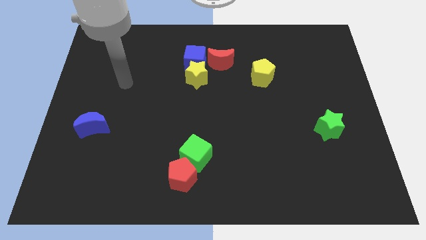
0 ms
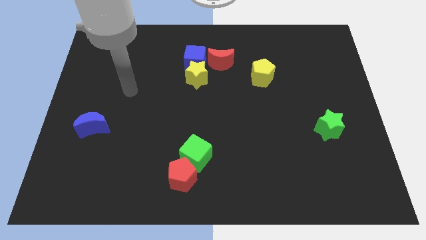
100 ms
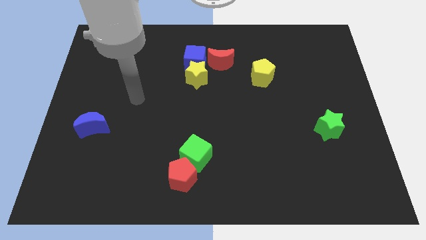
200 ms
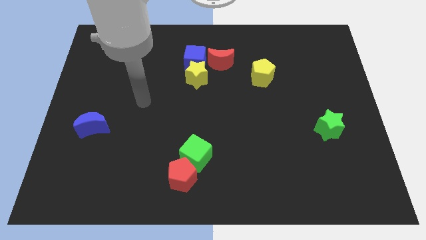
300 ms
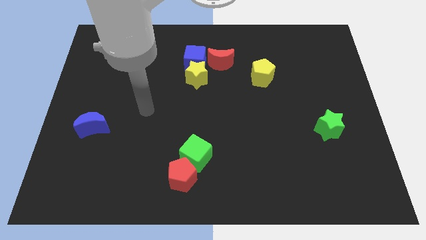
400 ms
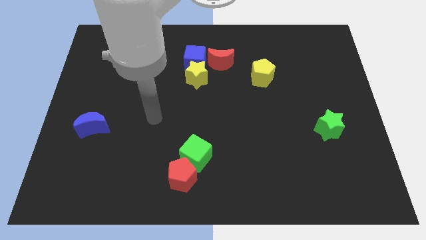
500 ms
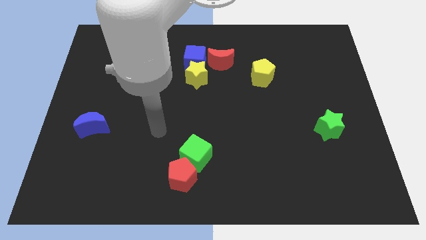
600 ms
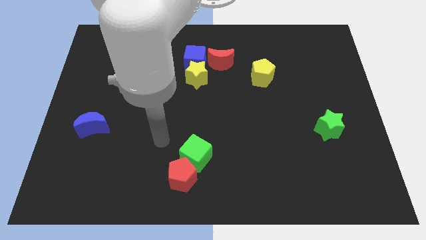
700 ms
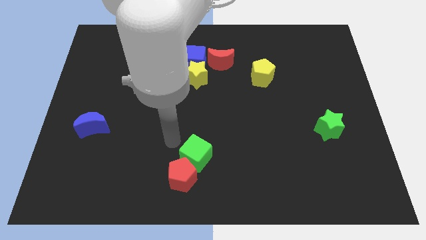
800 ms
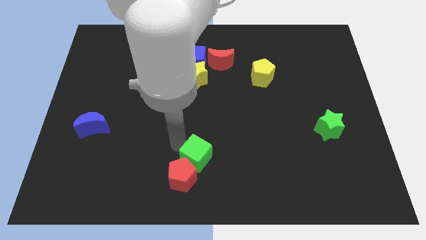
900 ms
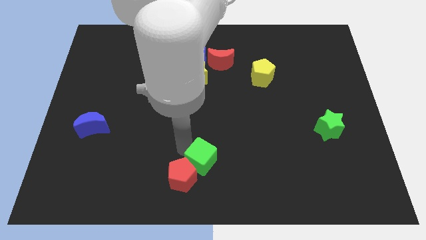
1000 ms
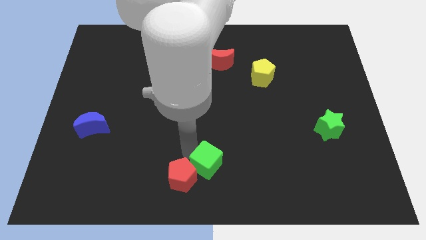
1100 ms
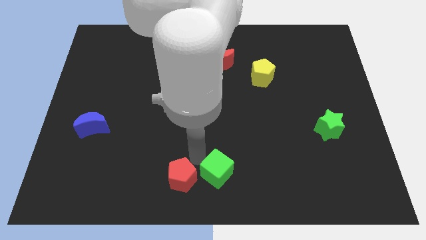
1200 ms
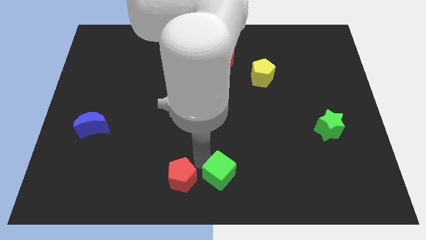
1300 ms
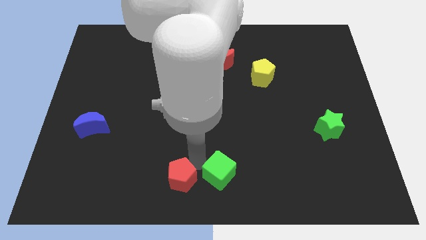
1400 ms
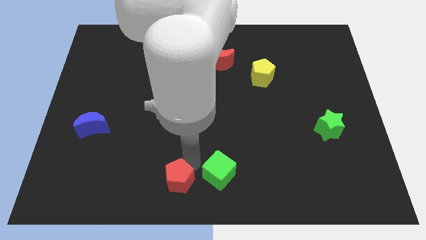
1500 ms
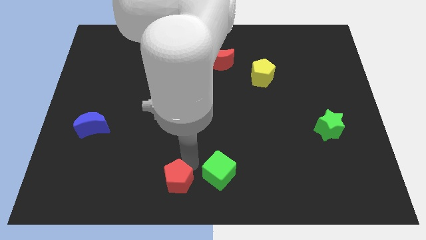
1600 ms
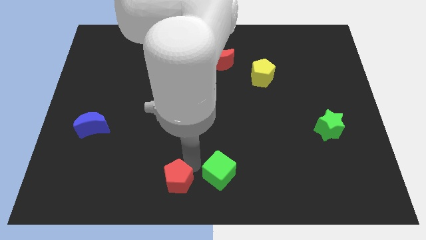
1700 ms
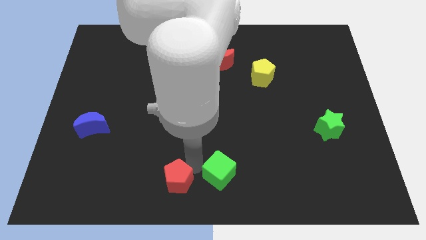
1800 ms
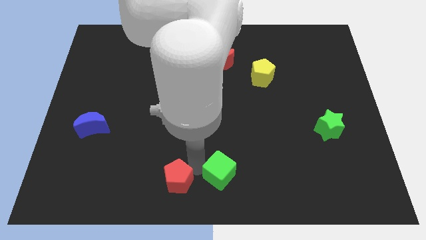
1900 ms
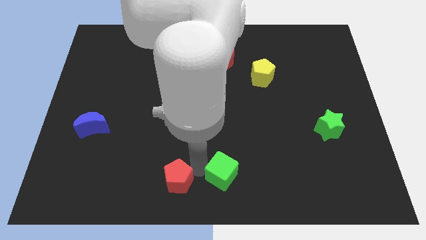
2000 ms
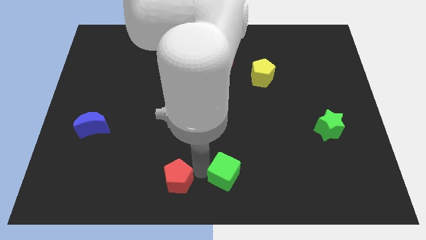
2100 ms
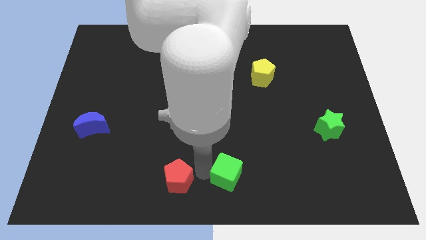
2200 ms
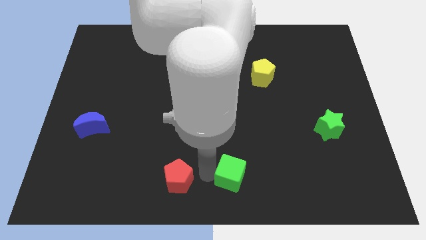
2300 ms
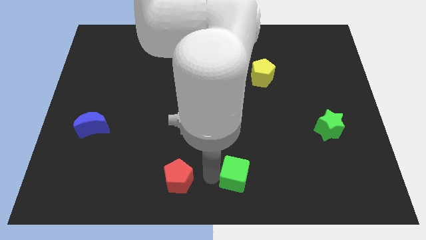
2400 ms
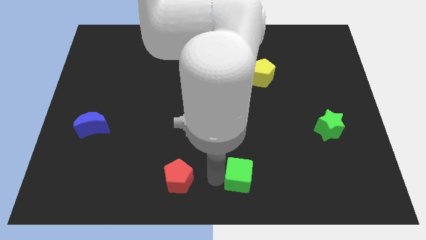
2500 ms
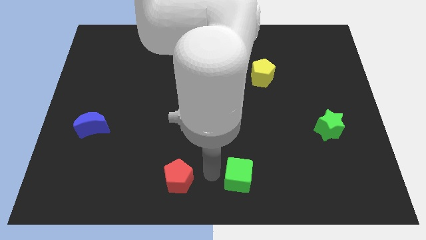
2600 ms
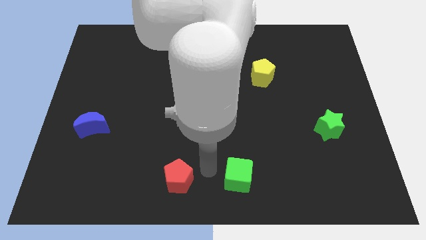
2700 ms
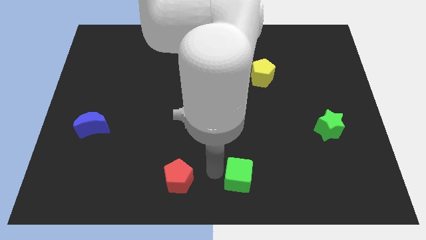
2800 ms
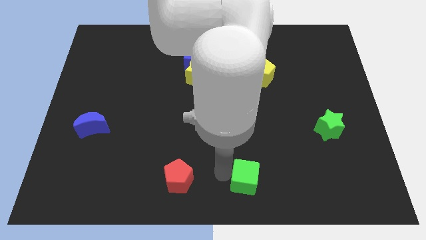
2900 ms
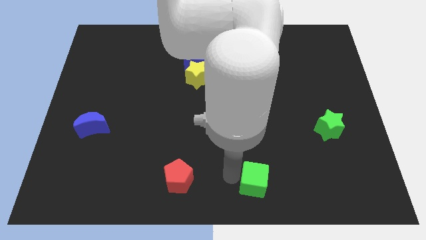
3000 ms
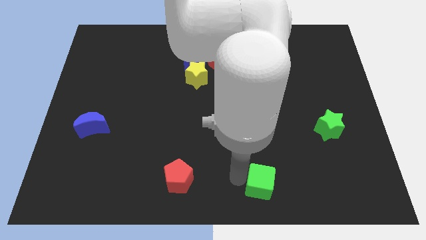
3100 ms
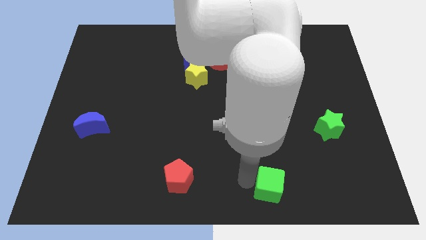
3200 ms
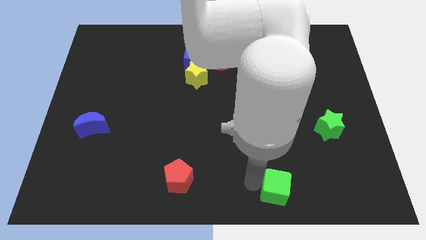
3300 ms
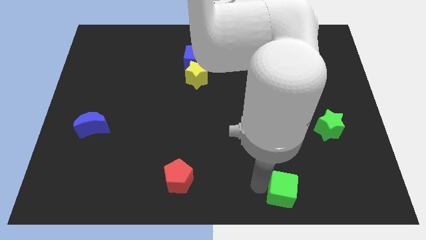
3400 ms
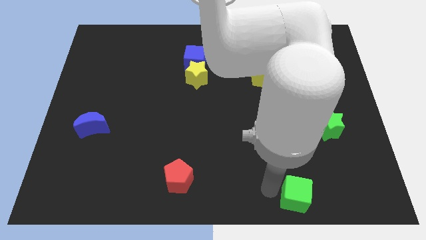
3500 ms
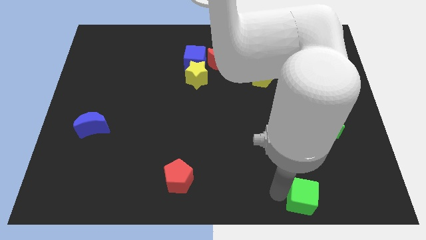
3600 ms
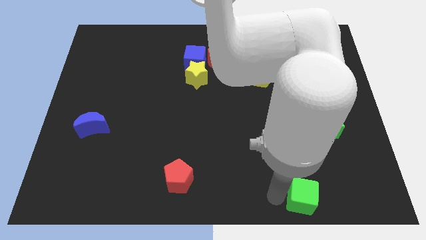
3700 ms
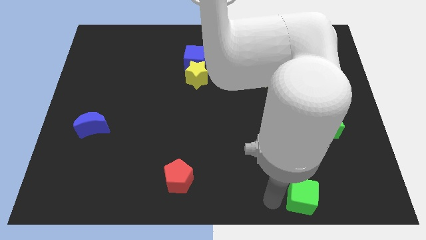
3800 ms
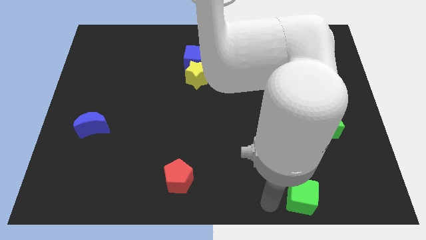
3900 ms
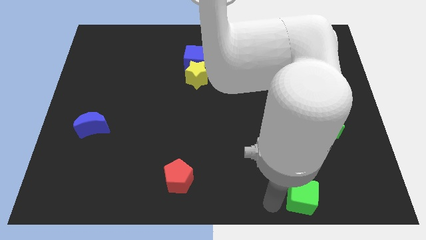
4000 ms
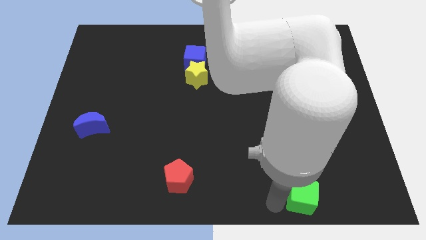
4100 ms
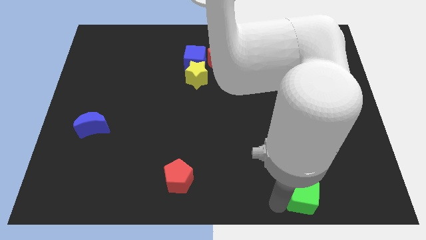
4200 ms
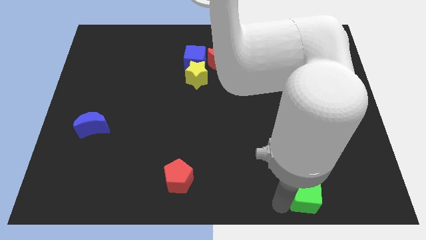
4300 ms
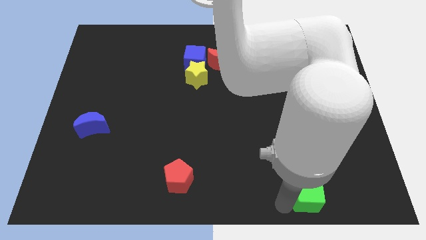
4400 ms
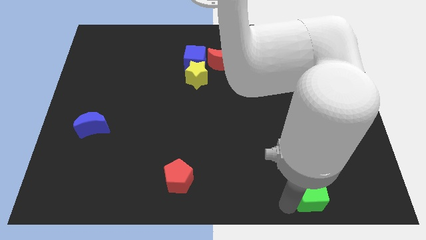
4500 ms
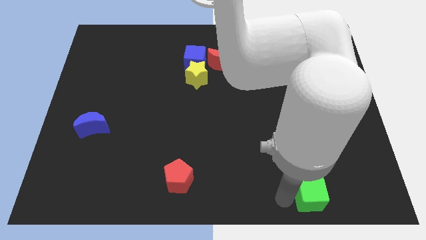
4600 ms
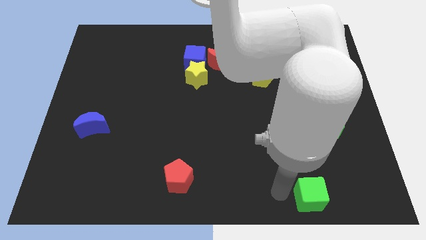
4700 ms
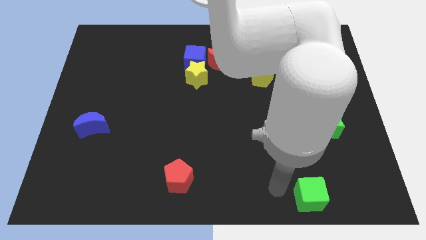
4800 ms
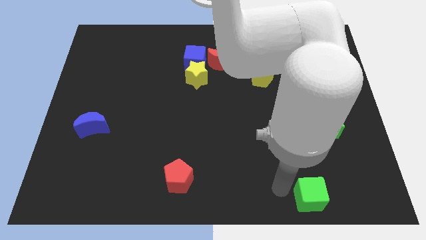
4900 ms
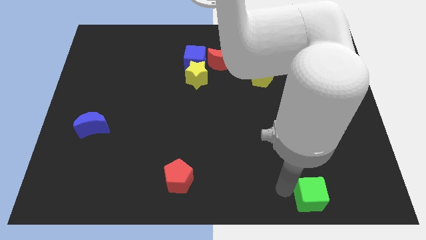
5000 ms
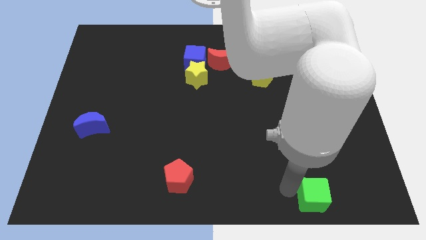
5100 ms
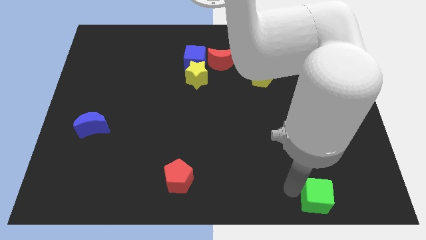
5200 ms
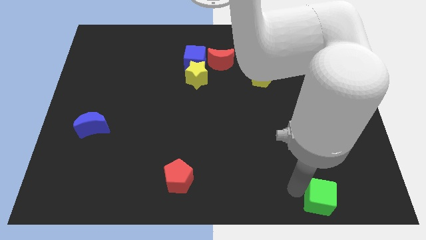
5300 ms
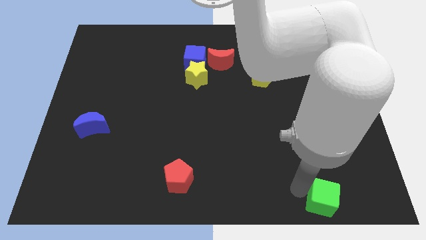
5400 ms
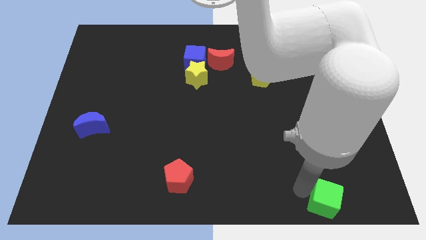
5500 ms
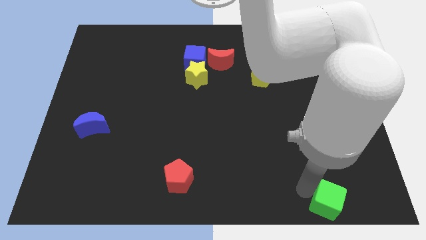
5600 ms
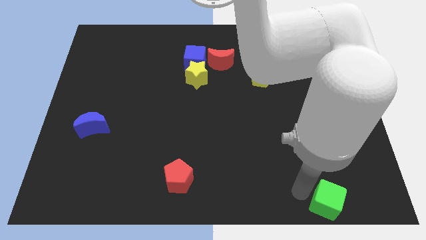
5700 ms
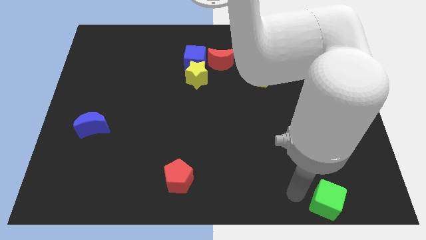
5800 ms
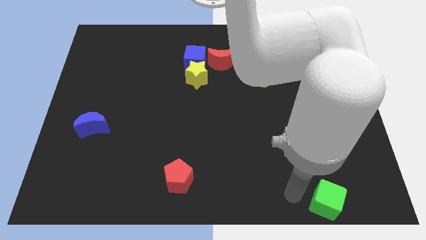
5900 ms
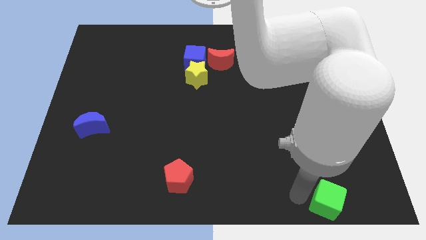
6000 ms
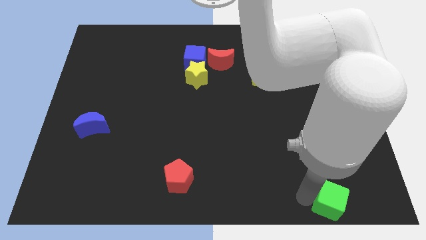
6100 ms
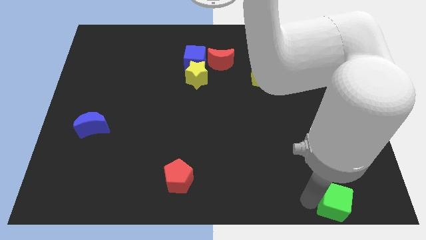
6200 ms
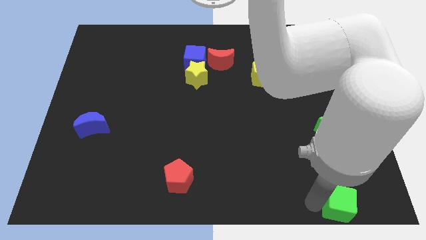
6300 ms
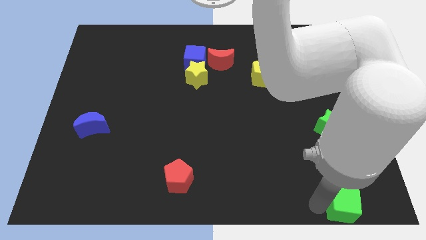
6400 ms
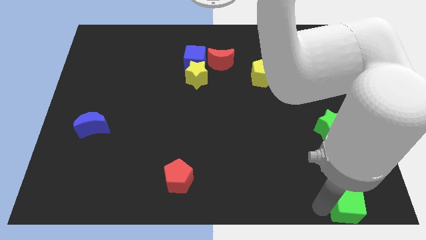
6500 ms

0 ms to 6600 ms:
put the green cube to the bottom right corner
